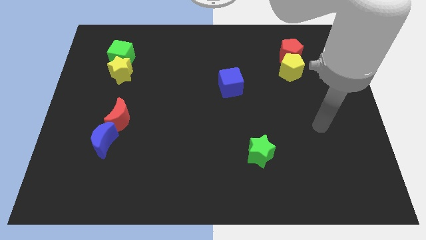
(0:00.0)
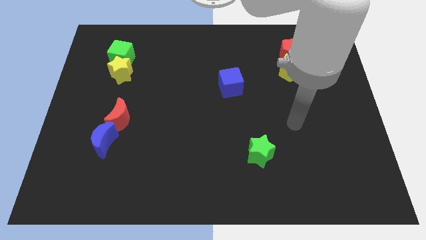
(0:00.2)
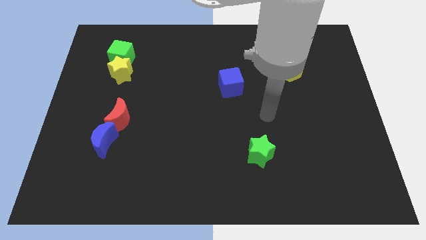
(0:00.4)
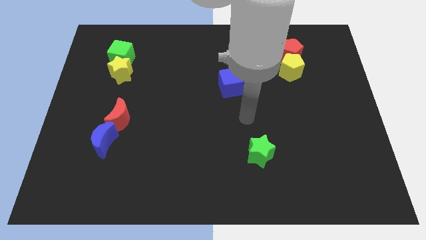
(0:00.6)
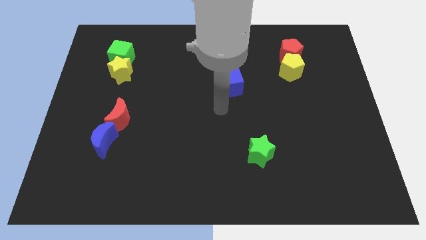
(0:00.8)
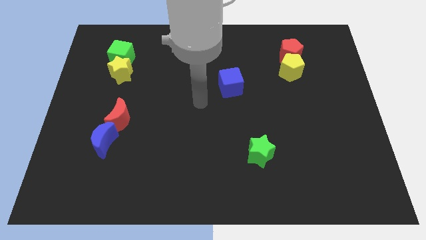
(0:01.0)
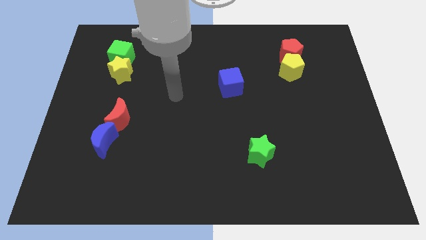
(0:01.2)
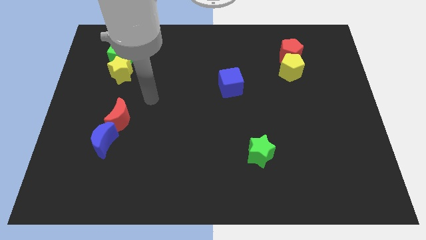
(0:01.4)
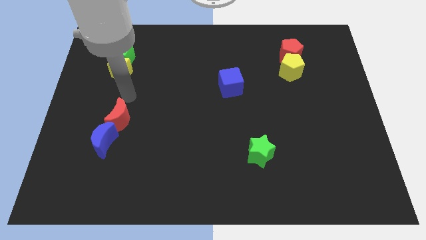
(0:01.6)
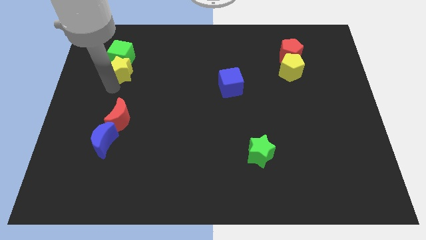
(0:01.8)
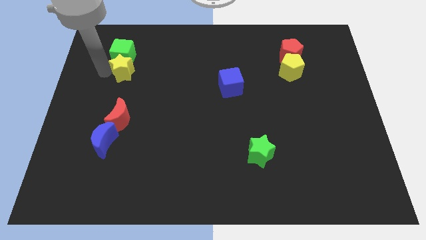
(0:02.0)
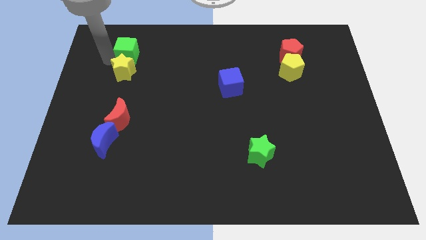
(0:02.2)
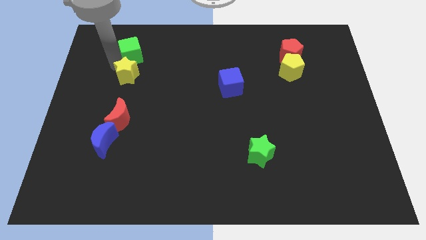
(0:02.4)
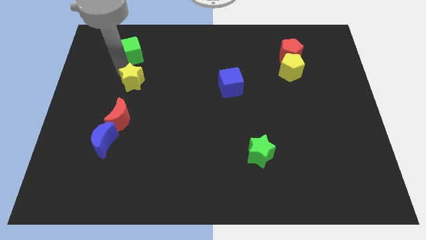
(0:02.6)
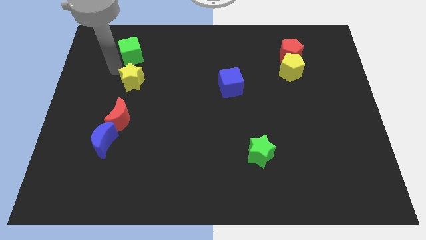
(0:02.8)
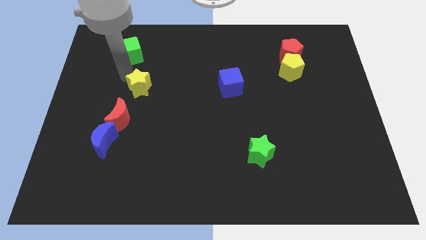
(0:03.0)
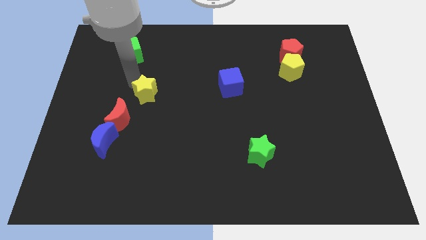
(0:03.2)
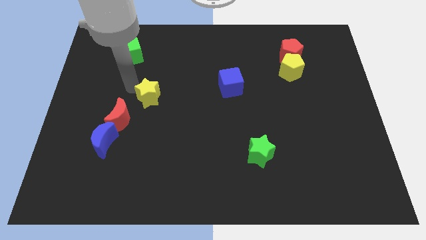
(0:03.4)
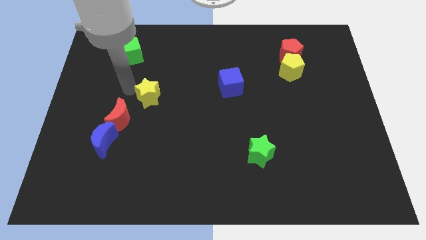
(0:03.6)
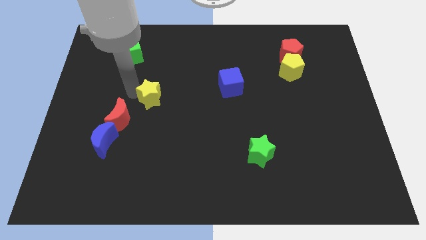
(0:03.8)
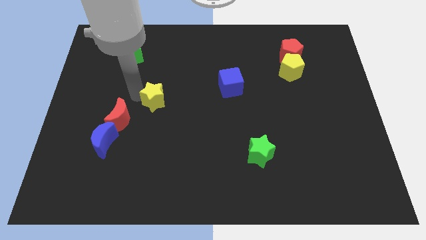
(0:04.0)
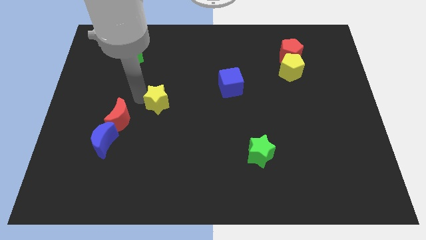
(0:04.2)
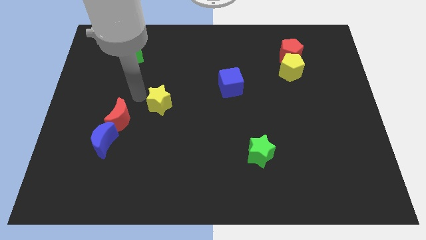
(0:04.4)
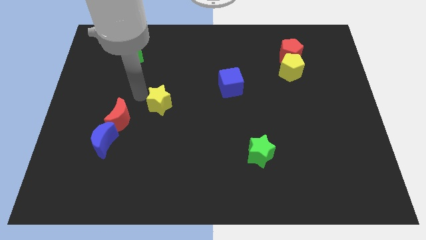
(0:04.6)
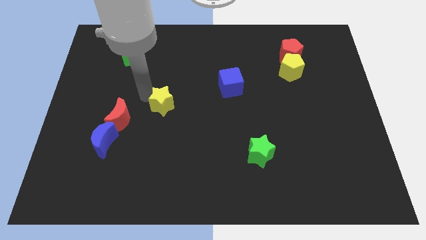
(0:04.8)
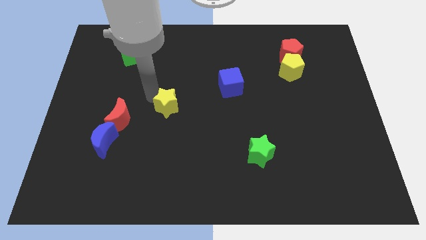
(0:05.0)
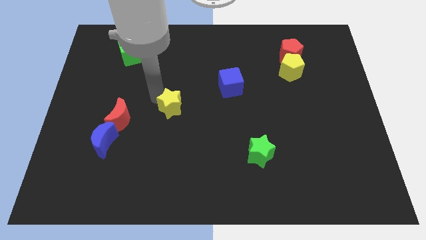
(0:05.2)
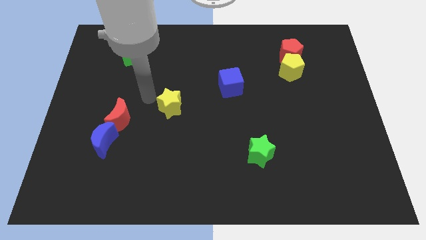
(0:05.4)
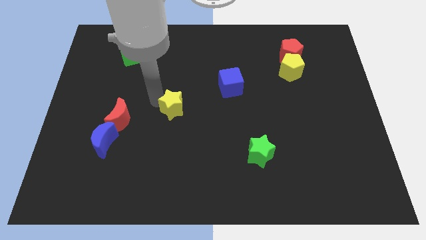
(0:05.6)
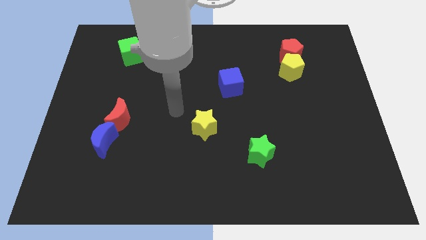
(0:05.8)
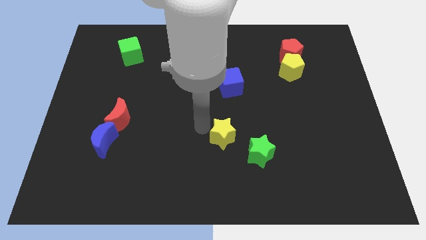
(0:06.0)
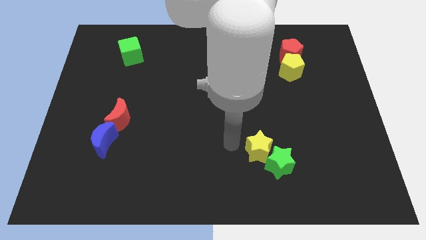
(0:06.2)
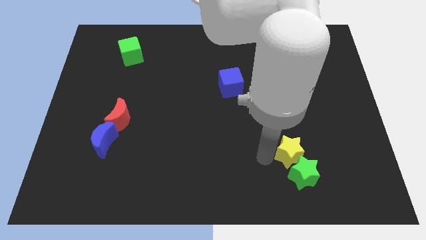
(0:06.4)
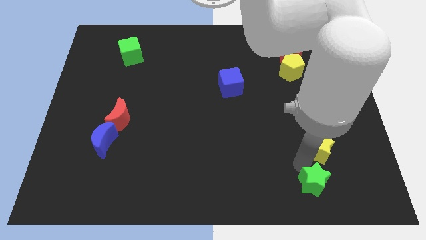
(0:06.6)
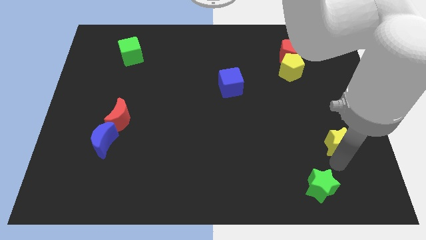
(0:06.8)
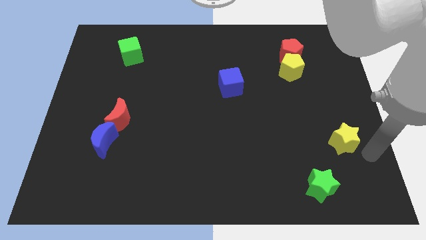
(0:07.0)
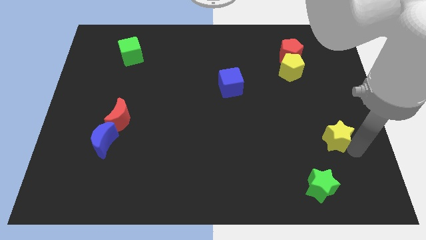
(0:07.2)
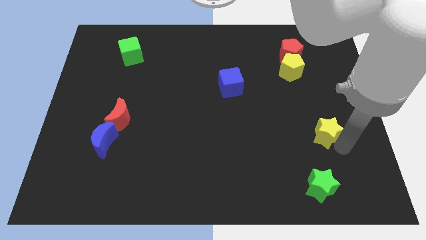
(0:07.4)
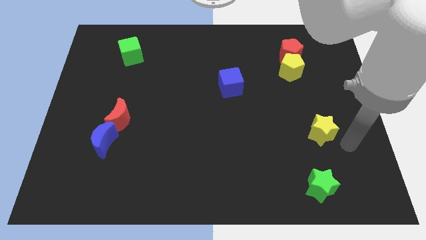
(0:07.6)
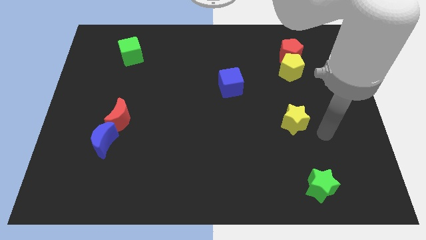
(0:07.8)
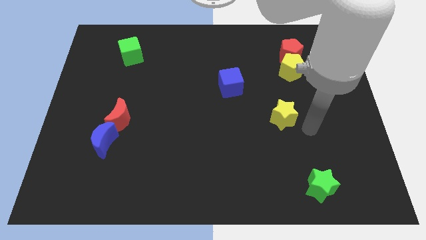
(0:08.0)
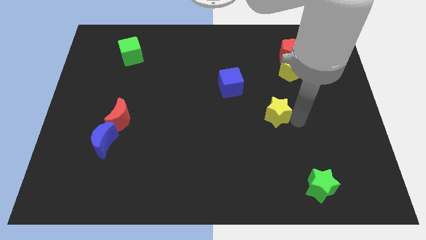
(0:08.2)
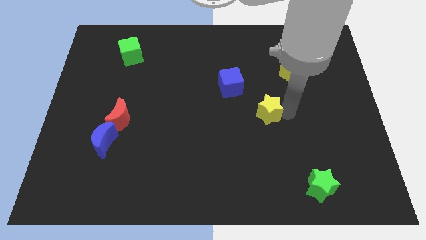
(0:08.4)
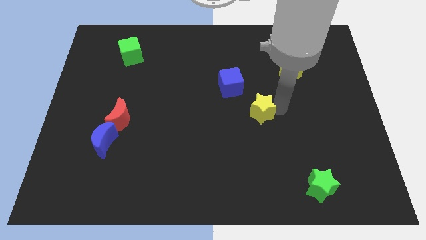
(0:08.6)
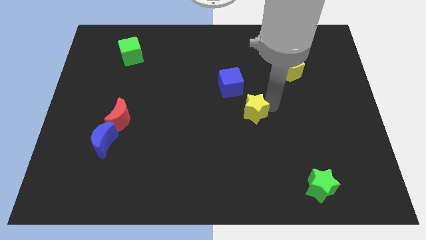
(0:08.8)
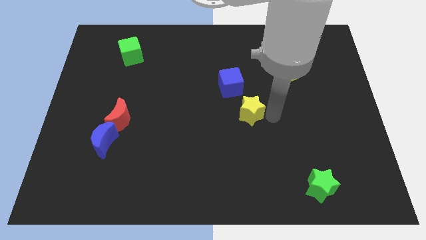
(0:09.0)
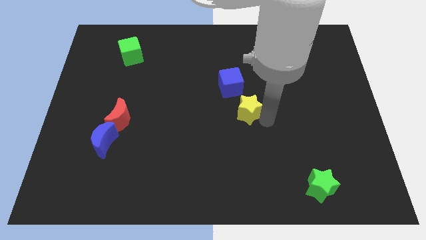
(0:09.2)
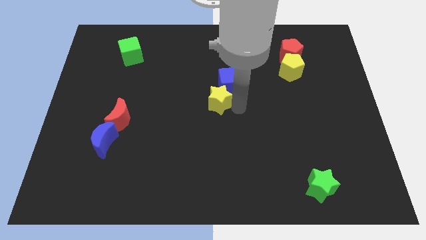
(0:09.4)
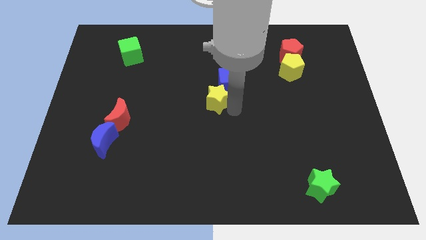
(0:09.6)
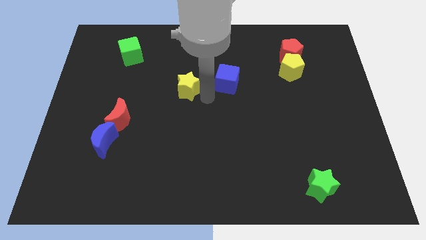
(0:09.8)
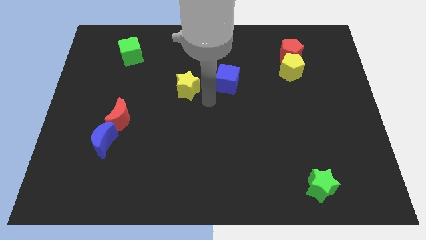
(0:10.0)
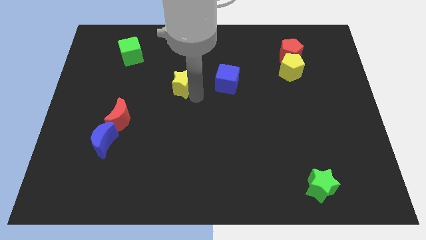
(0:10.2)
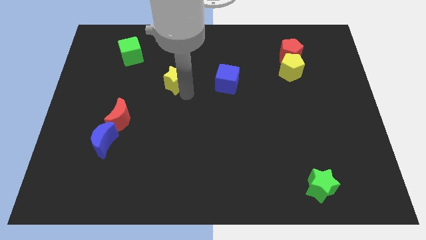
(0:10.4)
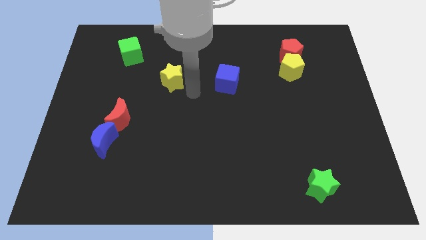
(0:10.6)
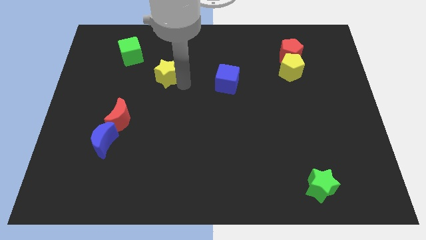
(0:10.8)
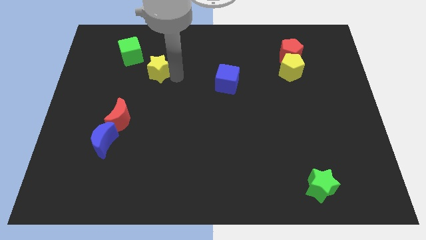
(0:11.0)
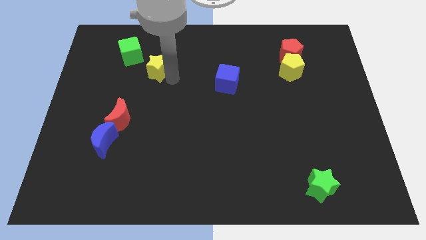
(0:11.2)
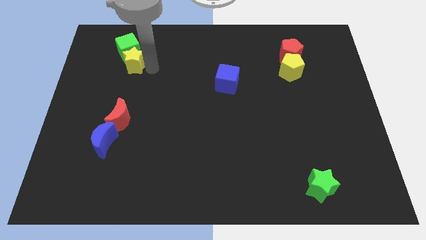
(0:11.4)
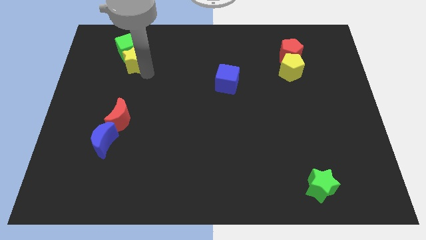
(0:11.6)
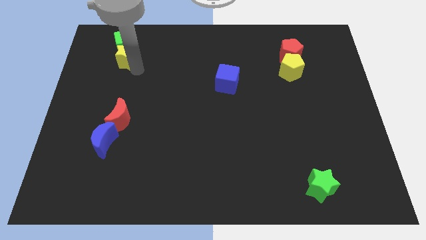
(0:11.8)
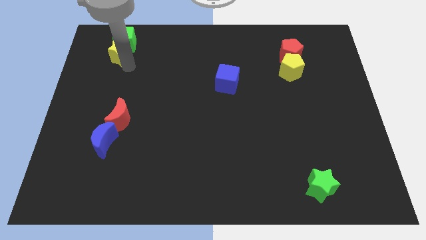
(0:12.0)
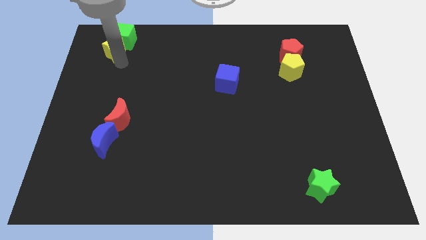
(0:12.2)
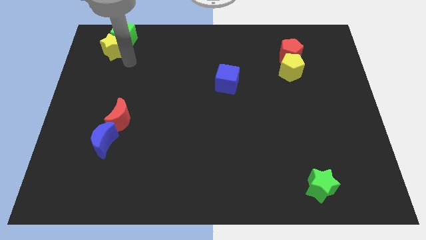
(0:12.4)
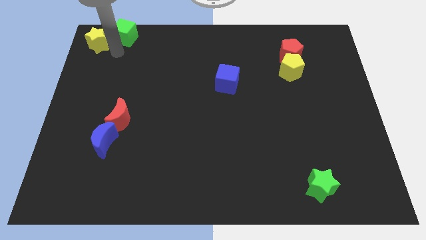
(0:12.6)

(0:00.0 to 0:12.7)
put the yellow star to the top left

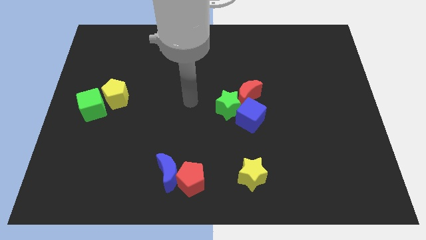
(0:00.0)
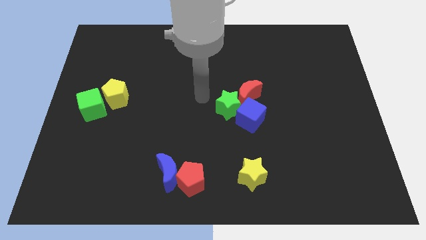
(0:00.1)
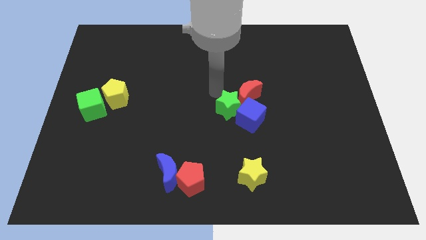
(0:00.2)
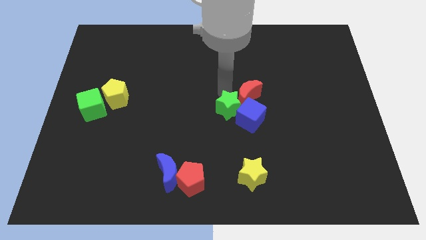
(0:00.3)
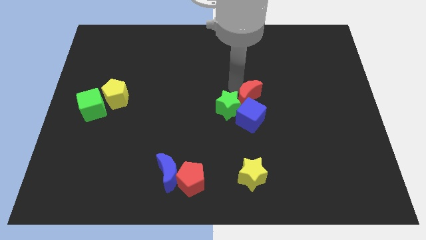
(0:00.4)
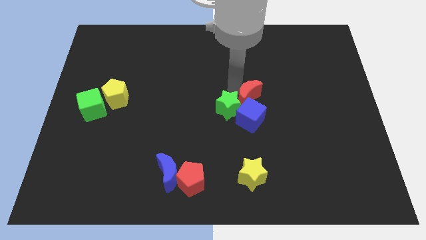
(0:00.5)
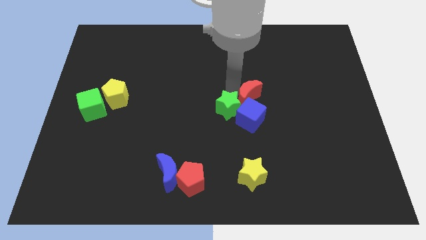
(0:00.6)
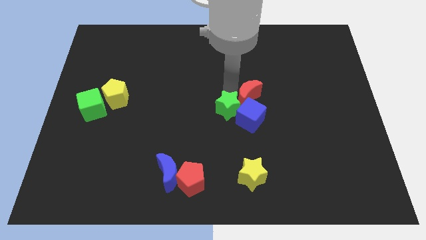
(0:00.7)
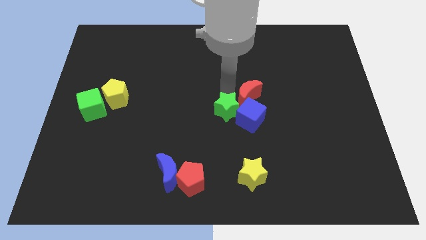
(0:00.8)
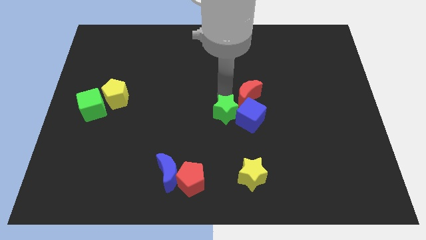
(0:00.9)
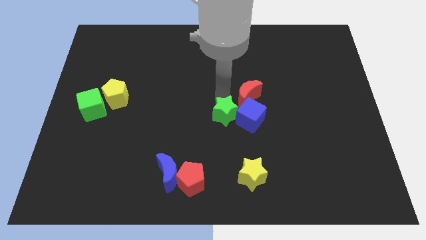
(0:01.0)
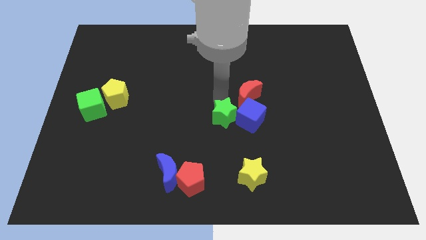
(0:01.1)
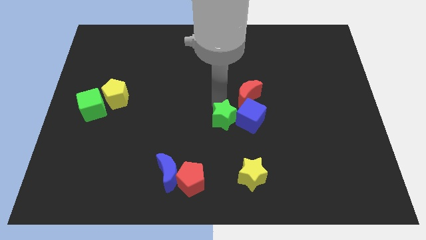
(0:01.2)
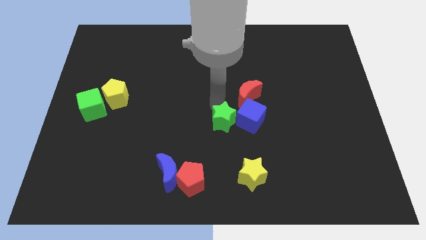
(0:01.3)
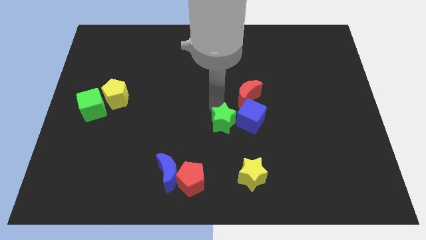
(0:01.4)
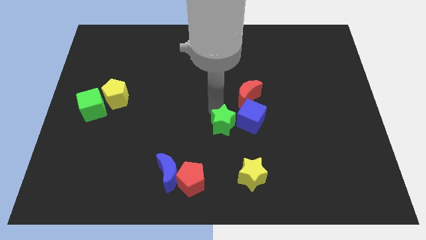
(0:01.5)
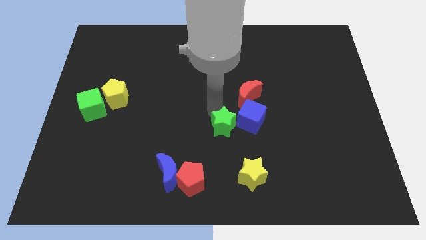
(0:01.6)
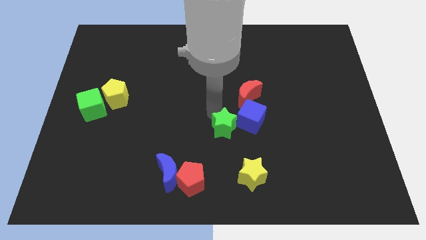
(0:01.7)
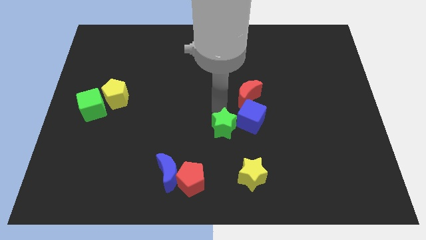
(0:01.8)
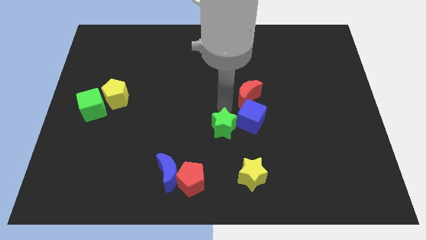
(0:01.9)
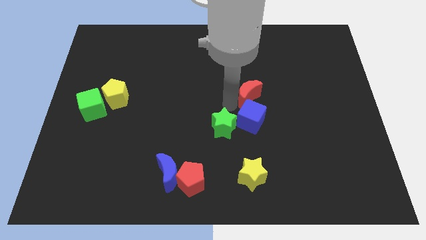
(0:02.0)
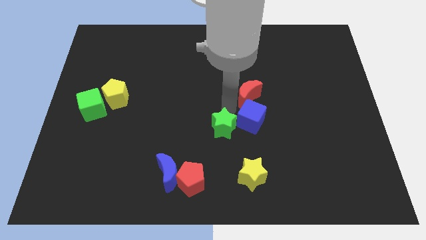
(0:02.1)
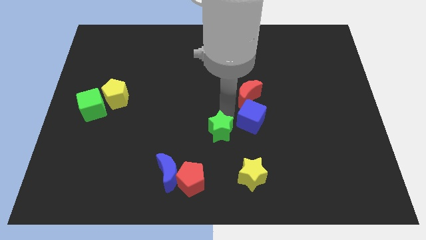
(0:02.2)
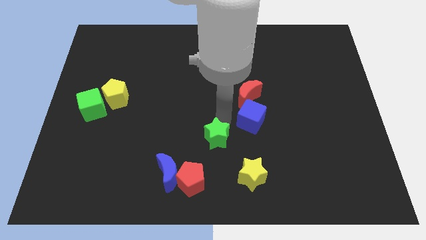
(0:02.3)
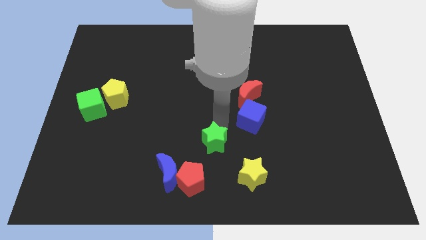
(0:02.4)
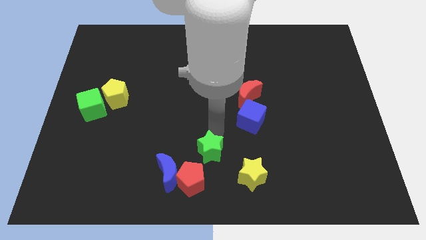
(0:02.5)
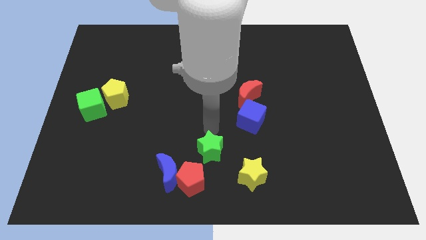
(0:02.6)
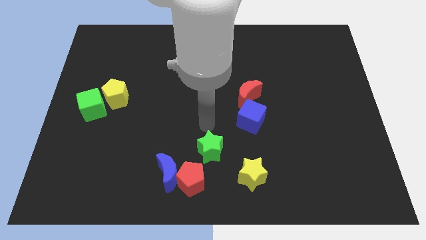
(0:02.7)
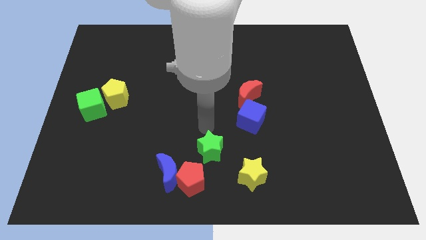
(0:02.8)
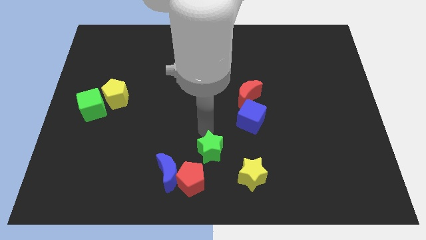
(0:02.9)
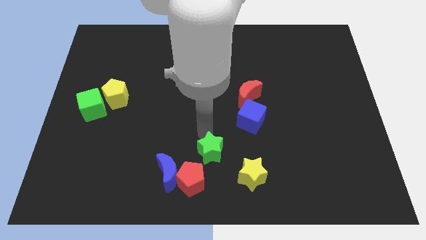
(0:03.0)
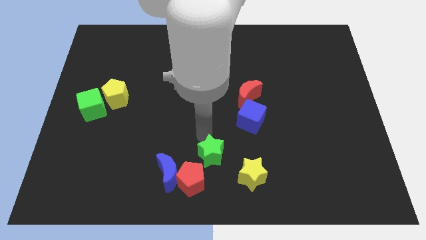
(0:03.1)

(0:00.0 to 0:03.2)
push the green star to the bottom side
